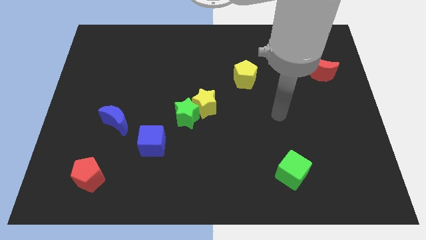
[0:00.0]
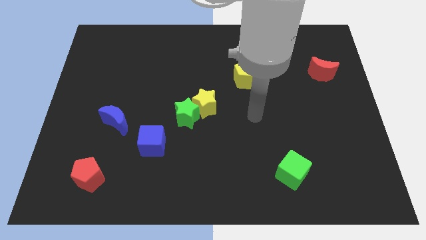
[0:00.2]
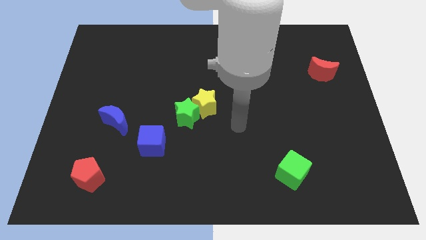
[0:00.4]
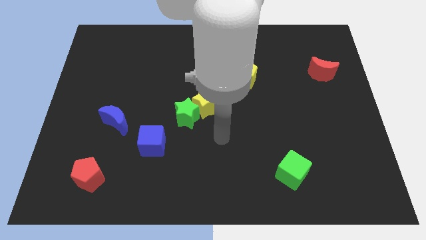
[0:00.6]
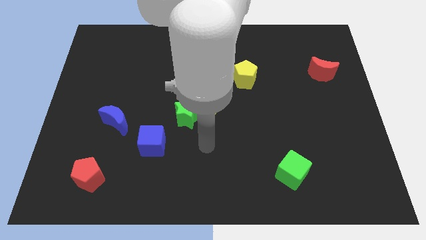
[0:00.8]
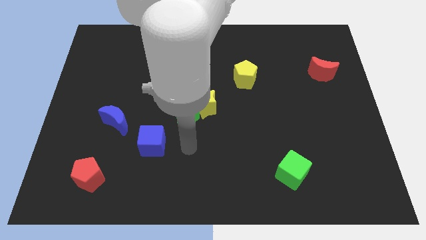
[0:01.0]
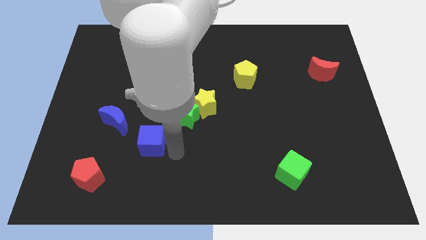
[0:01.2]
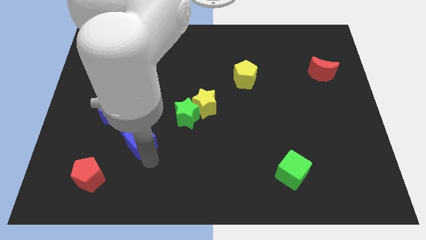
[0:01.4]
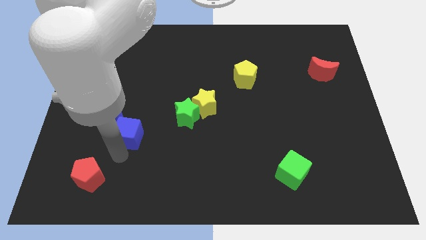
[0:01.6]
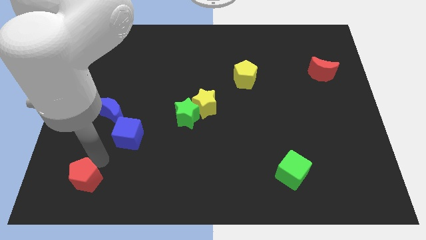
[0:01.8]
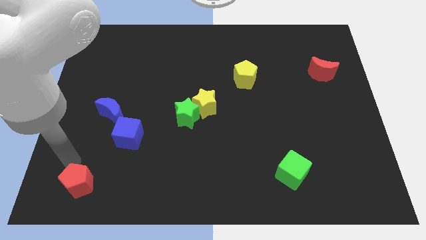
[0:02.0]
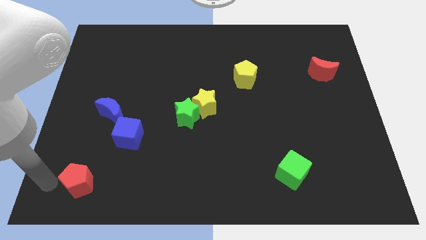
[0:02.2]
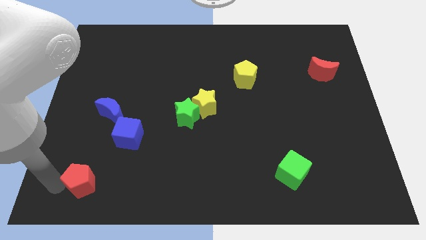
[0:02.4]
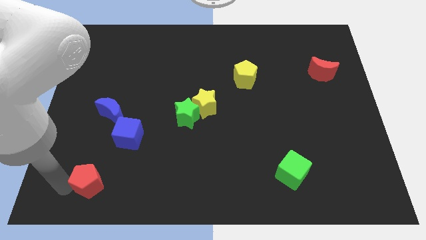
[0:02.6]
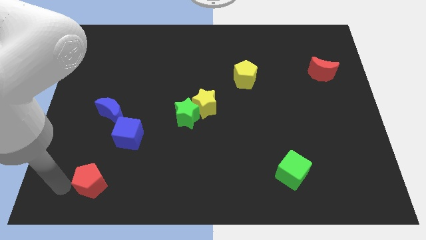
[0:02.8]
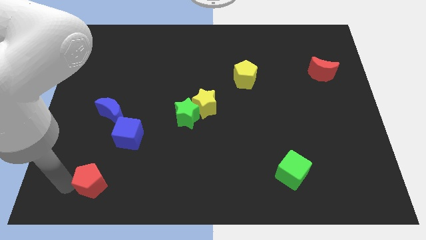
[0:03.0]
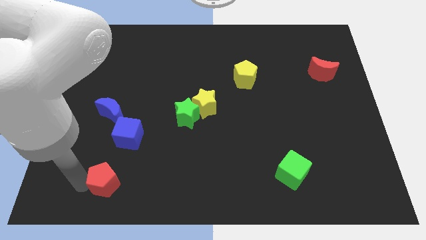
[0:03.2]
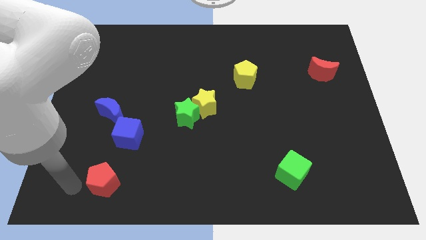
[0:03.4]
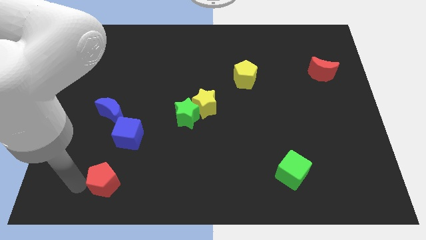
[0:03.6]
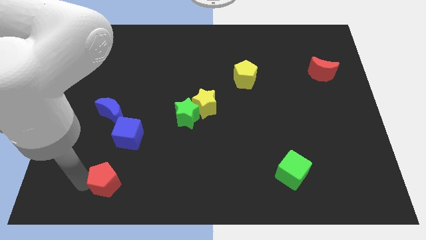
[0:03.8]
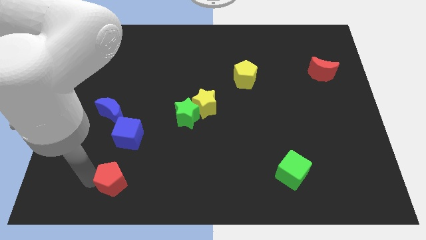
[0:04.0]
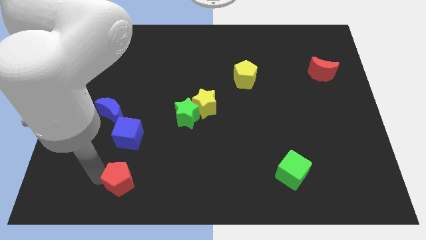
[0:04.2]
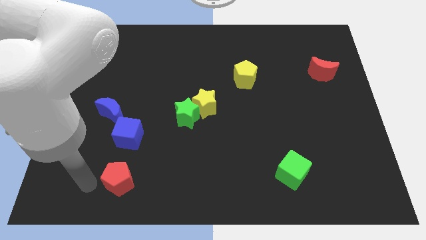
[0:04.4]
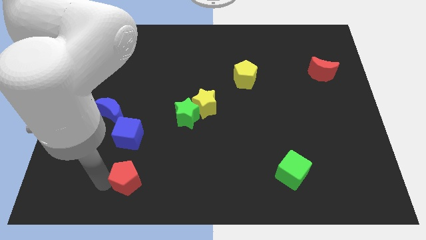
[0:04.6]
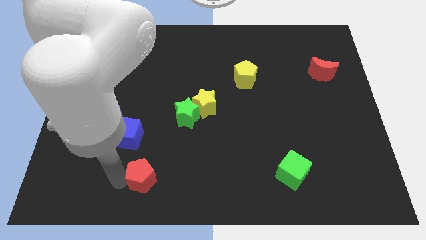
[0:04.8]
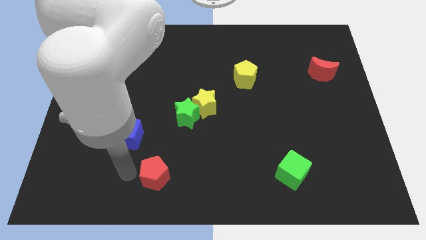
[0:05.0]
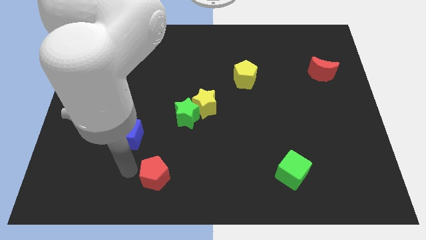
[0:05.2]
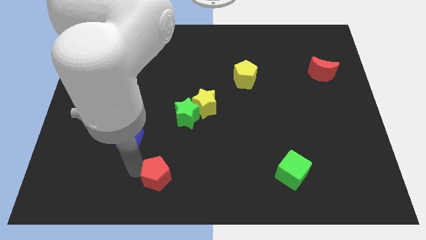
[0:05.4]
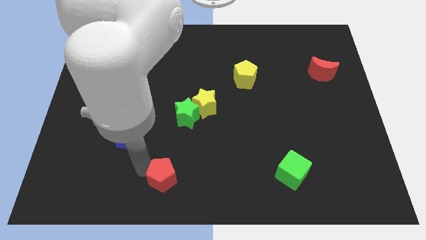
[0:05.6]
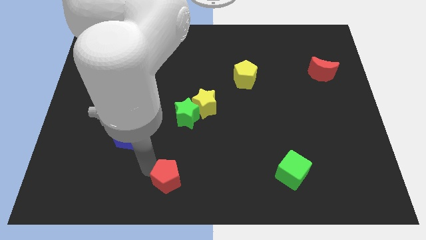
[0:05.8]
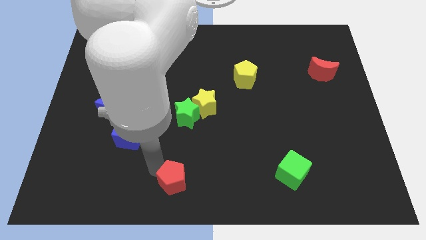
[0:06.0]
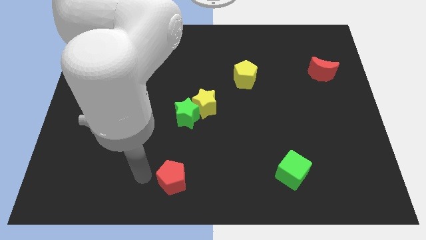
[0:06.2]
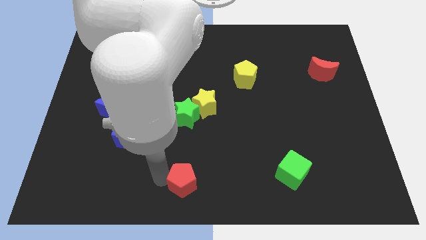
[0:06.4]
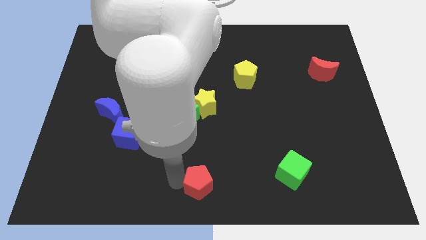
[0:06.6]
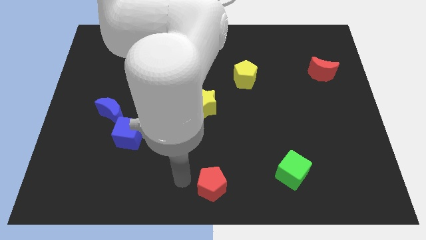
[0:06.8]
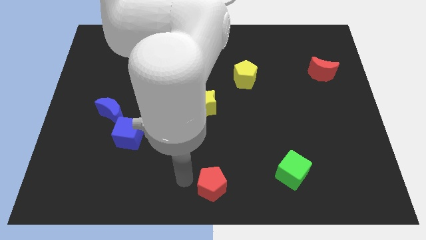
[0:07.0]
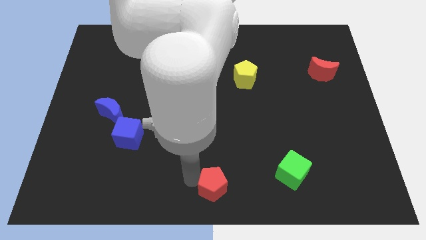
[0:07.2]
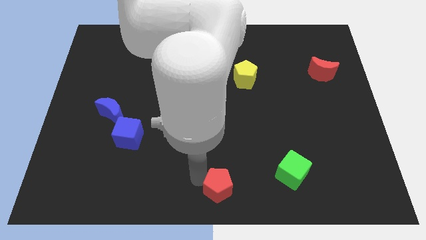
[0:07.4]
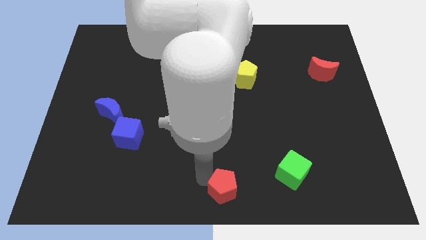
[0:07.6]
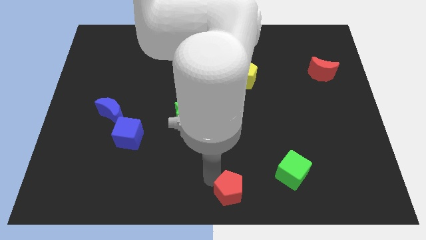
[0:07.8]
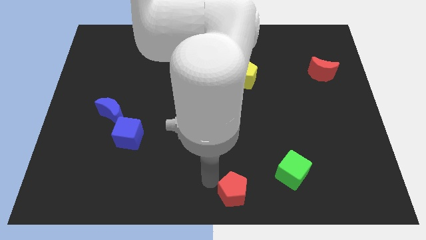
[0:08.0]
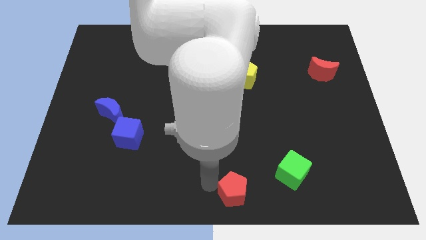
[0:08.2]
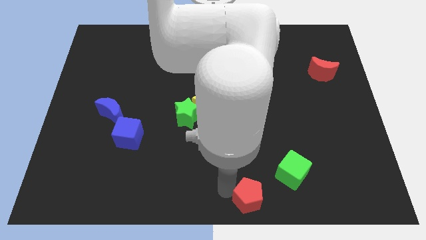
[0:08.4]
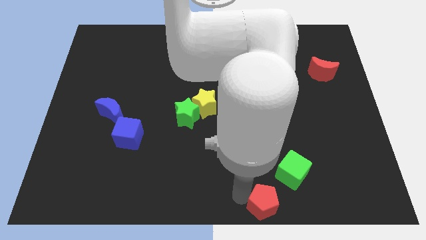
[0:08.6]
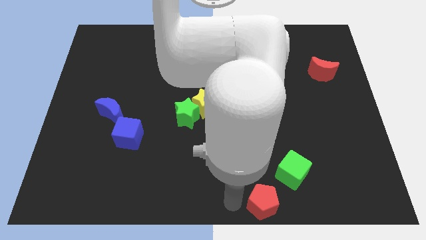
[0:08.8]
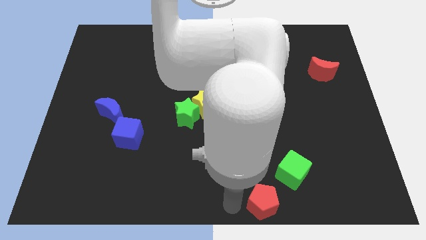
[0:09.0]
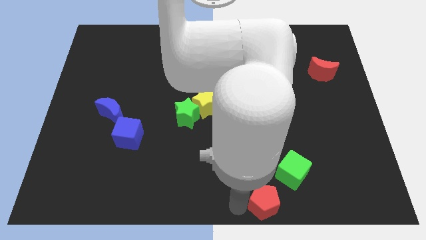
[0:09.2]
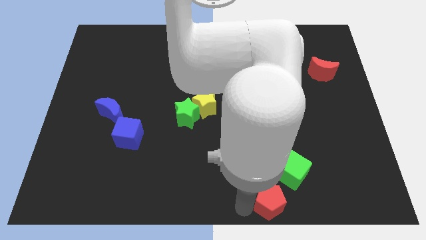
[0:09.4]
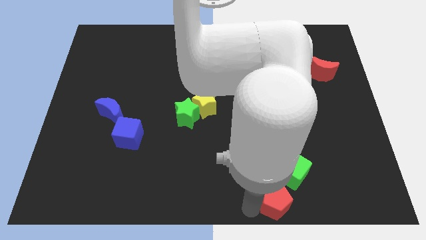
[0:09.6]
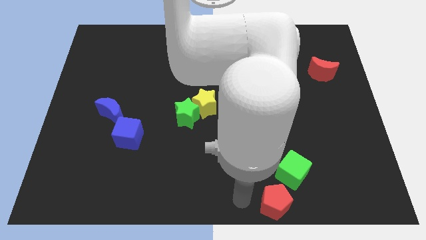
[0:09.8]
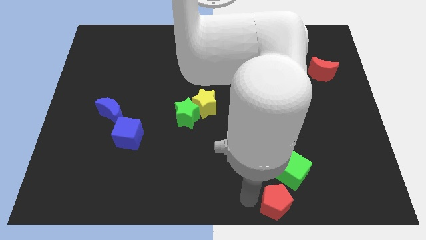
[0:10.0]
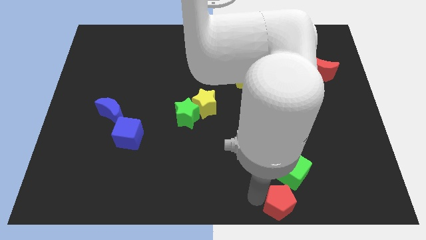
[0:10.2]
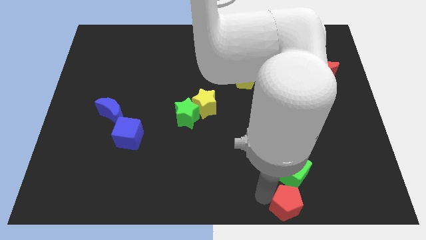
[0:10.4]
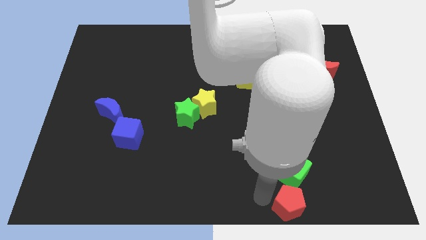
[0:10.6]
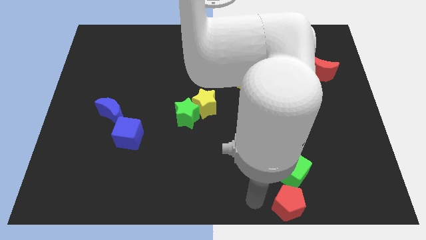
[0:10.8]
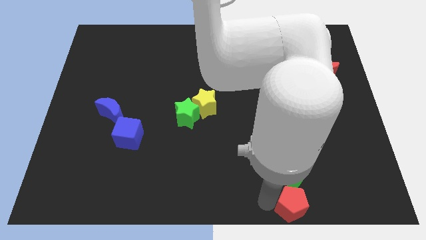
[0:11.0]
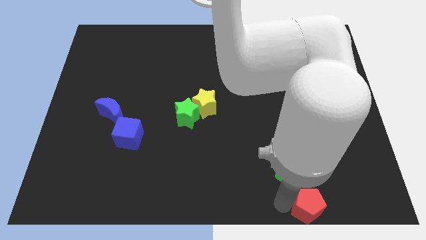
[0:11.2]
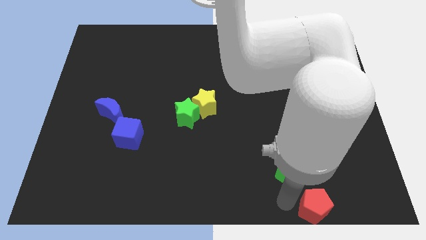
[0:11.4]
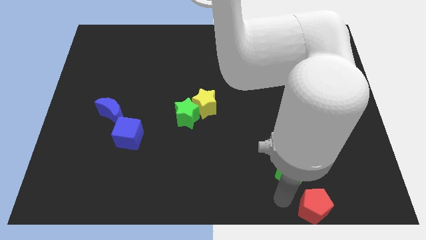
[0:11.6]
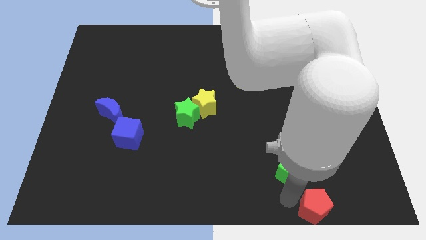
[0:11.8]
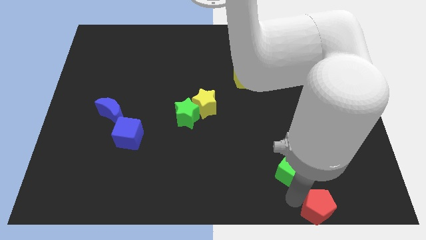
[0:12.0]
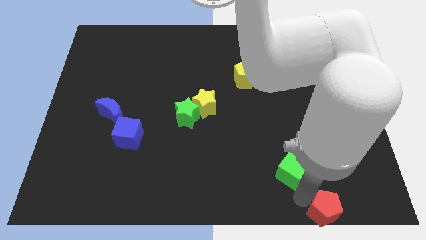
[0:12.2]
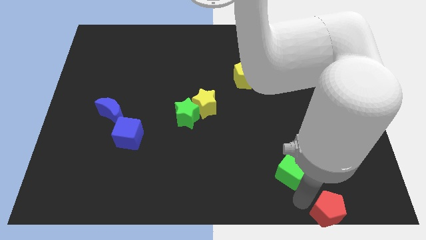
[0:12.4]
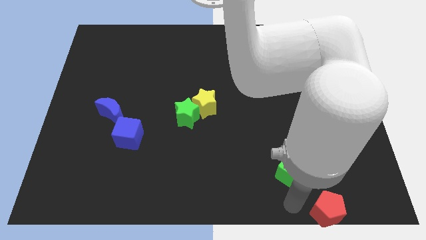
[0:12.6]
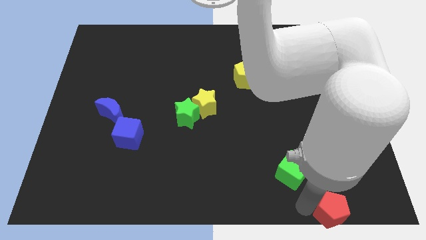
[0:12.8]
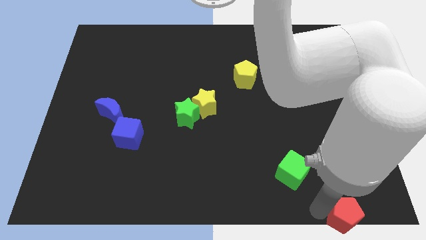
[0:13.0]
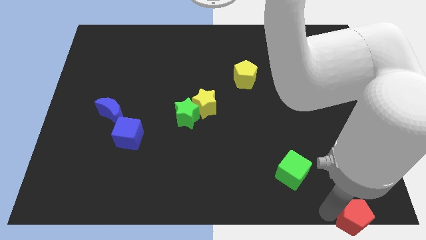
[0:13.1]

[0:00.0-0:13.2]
move the red pentagon to the bottom right corner

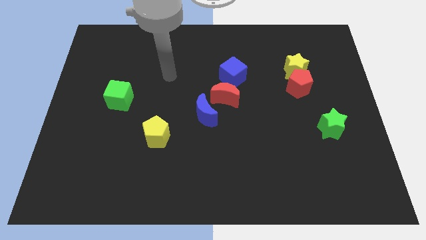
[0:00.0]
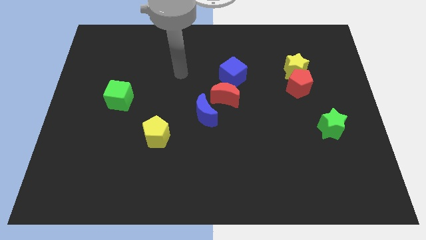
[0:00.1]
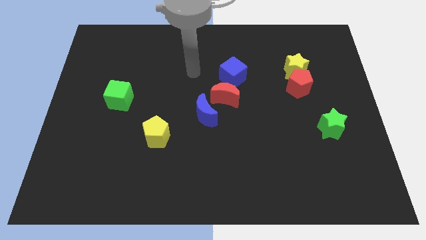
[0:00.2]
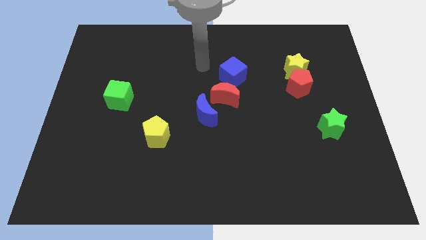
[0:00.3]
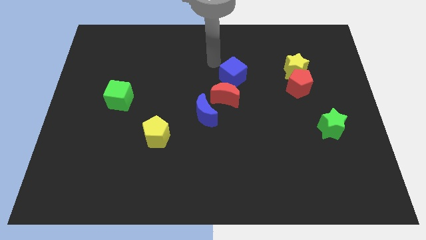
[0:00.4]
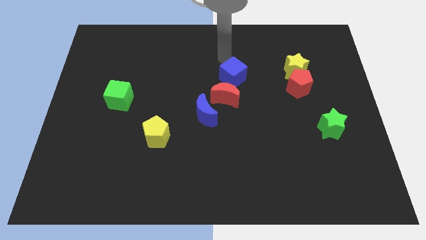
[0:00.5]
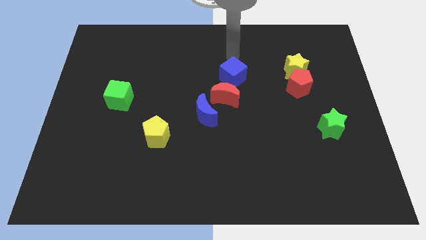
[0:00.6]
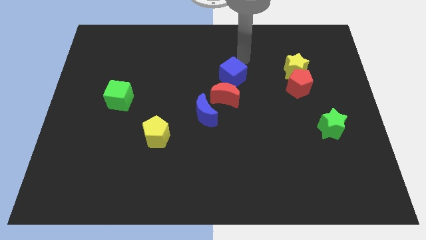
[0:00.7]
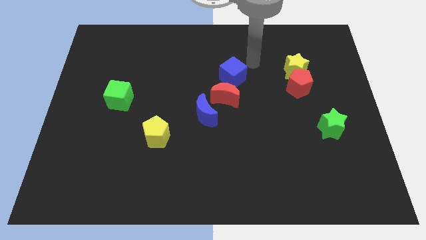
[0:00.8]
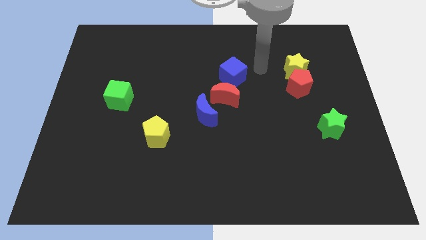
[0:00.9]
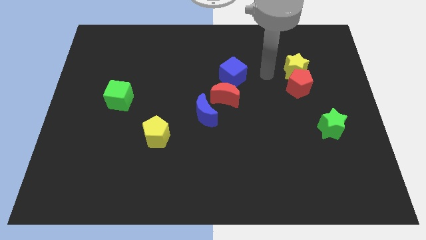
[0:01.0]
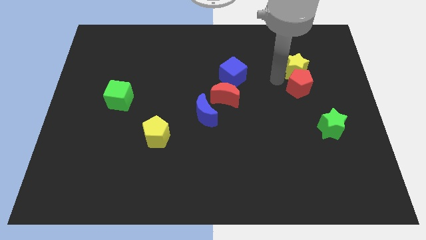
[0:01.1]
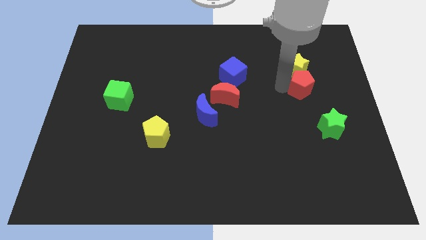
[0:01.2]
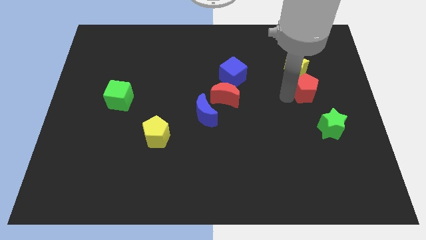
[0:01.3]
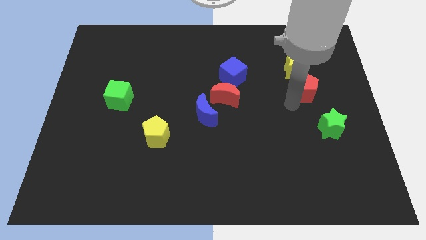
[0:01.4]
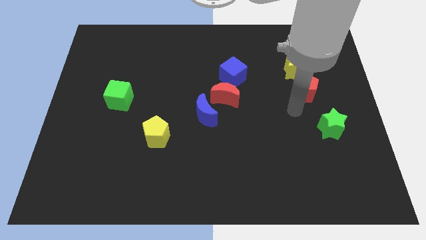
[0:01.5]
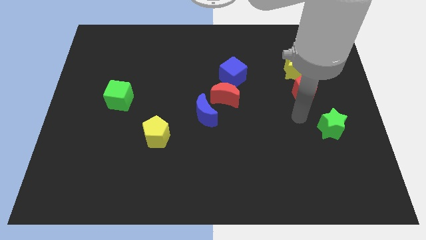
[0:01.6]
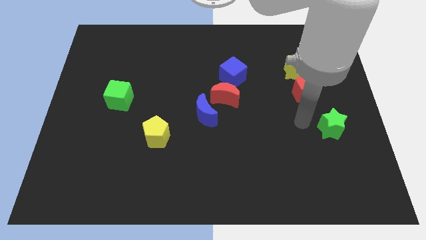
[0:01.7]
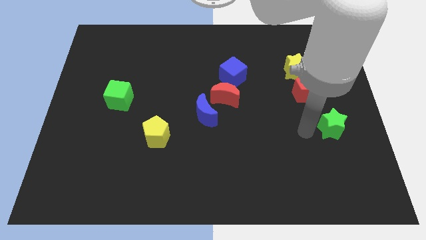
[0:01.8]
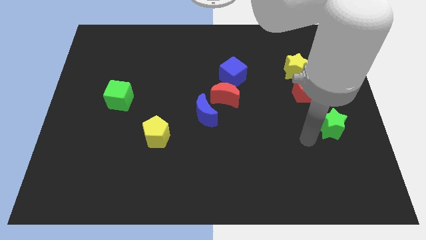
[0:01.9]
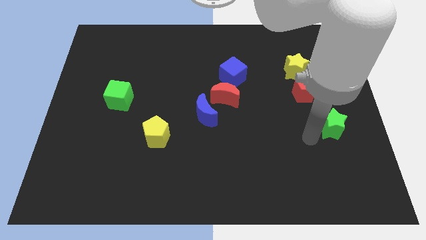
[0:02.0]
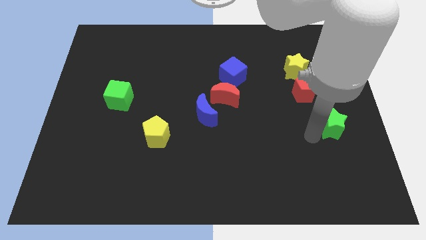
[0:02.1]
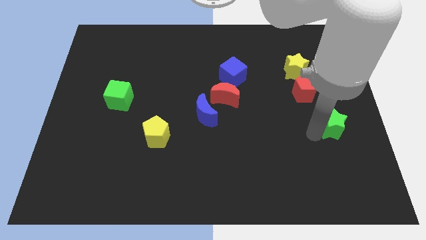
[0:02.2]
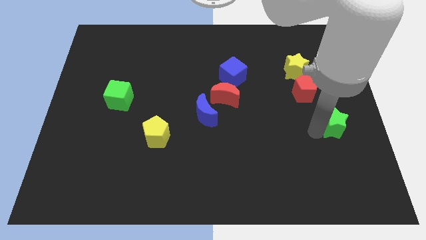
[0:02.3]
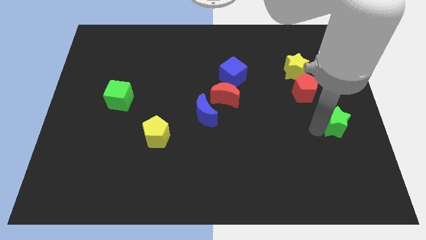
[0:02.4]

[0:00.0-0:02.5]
put the green star to the right side
